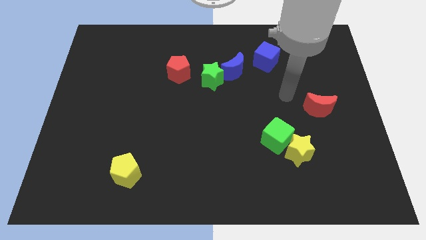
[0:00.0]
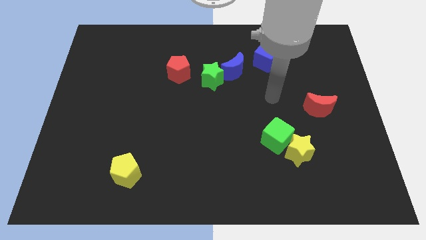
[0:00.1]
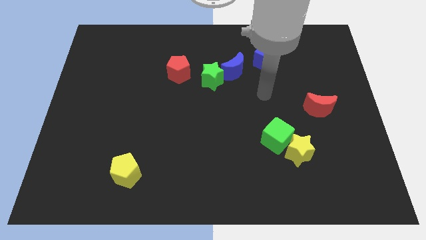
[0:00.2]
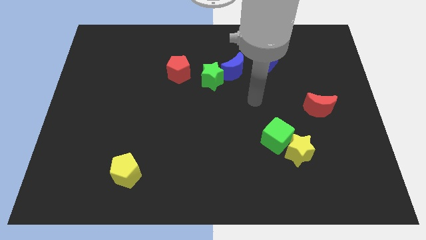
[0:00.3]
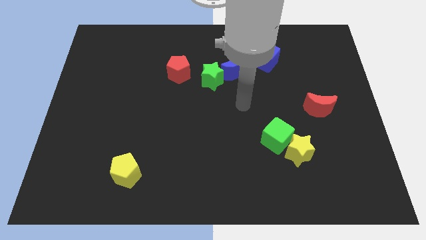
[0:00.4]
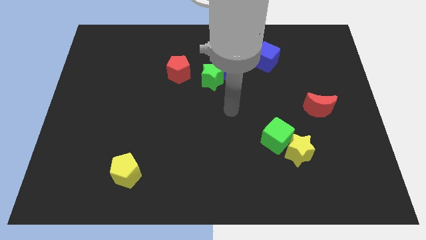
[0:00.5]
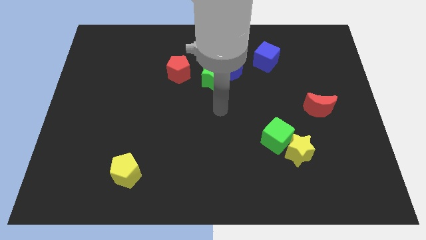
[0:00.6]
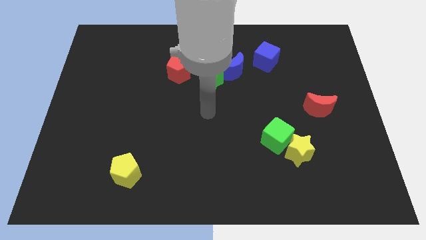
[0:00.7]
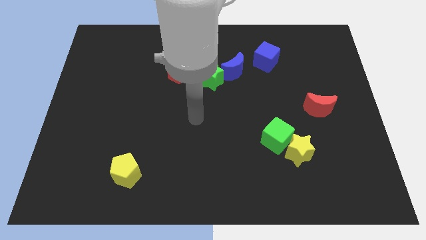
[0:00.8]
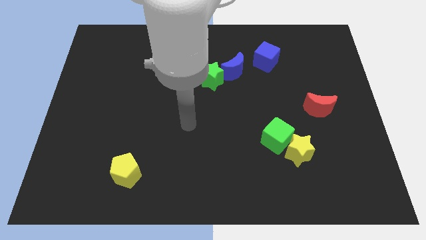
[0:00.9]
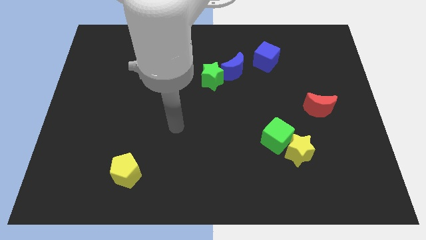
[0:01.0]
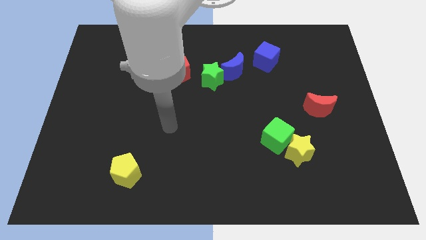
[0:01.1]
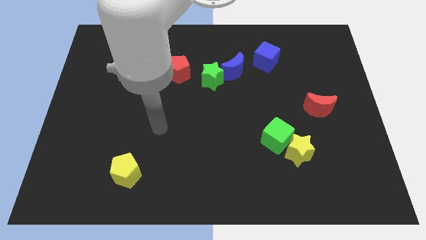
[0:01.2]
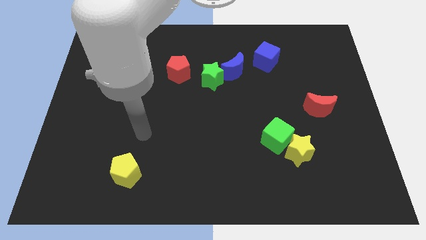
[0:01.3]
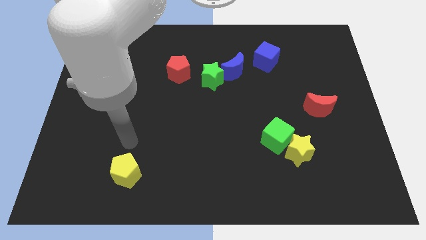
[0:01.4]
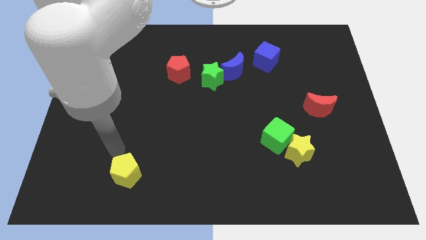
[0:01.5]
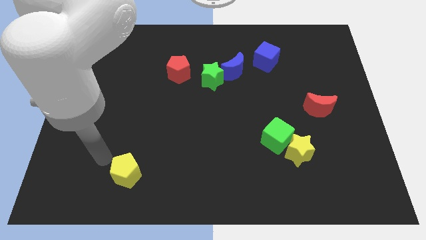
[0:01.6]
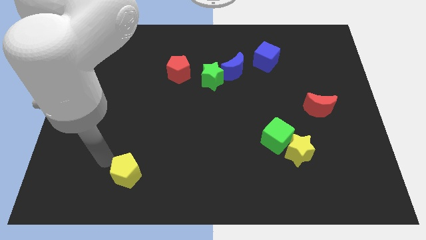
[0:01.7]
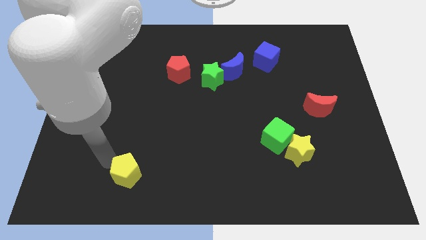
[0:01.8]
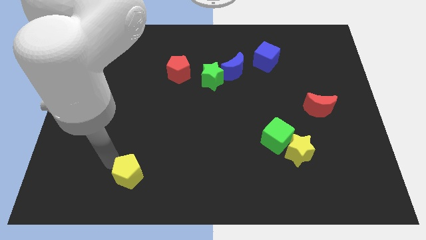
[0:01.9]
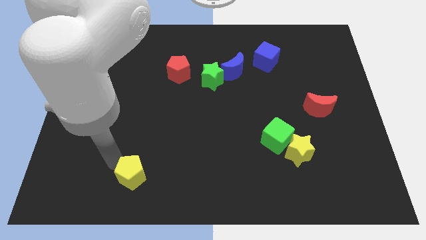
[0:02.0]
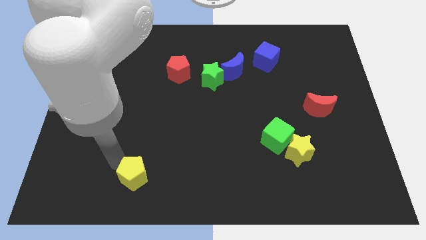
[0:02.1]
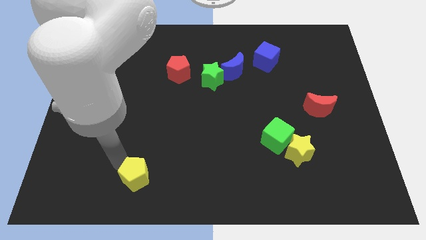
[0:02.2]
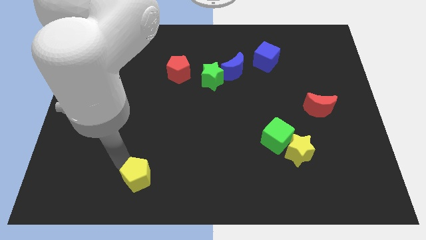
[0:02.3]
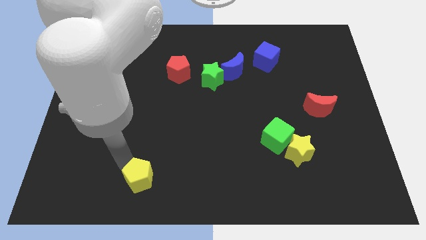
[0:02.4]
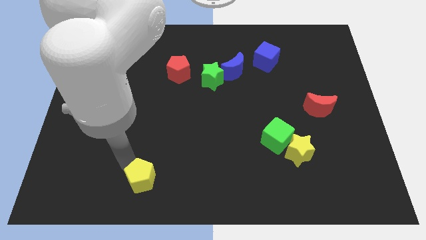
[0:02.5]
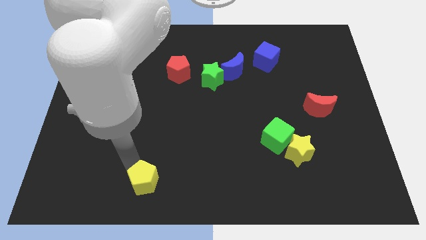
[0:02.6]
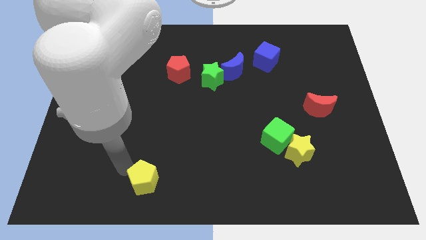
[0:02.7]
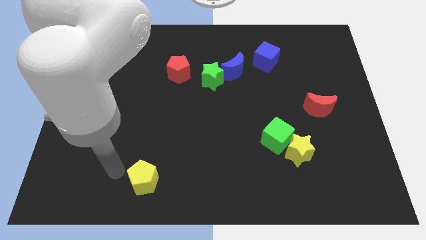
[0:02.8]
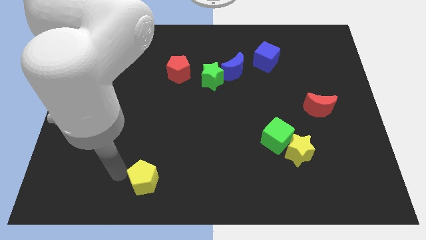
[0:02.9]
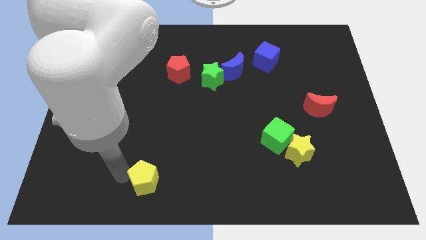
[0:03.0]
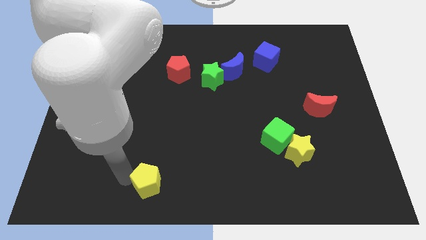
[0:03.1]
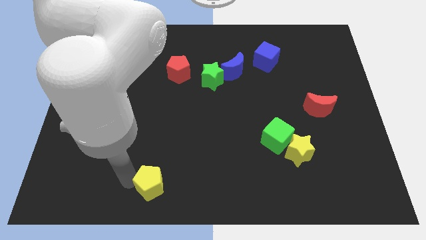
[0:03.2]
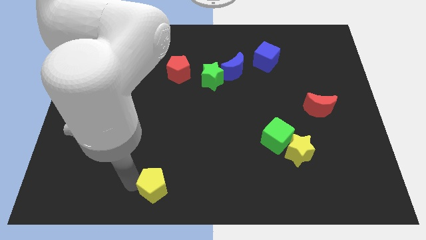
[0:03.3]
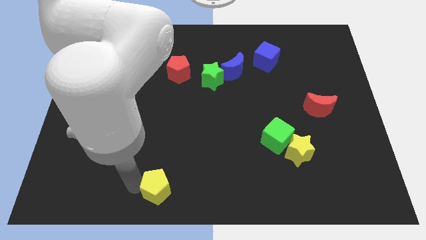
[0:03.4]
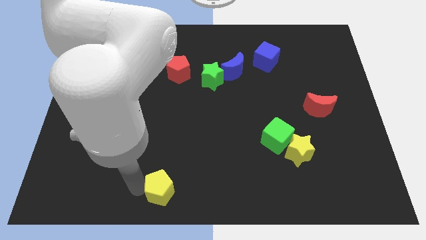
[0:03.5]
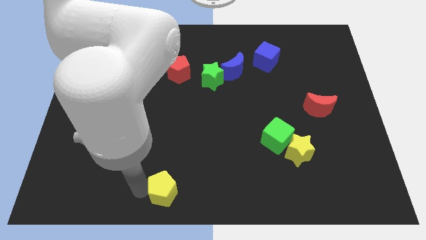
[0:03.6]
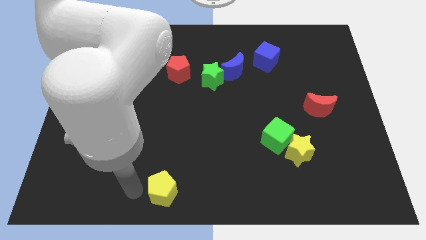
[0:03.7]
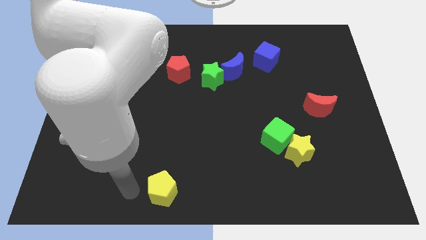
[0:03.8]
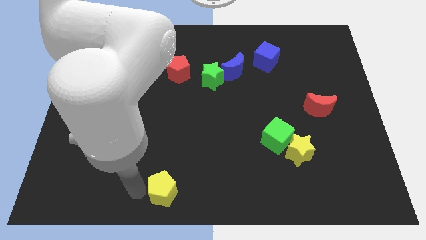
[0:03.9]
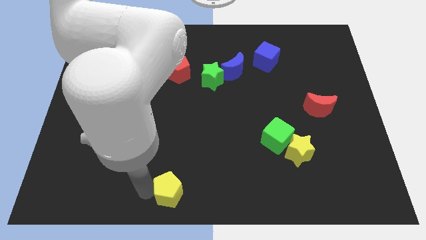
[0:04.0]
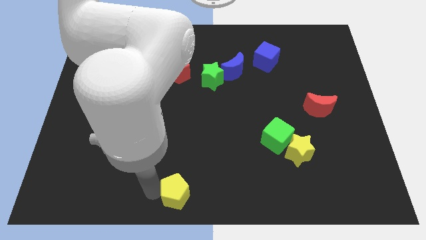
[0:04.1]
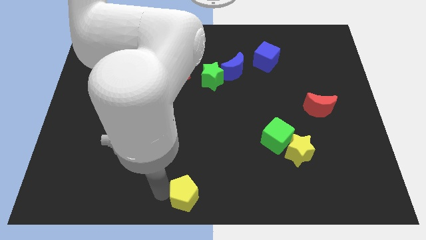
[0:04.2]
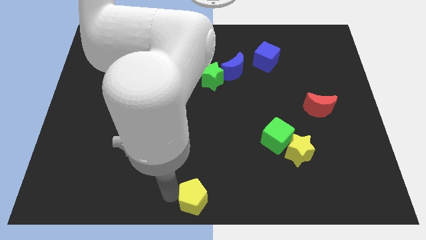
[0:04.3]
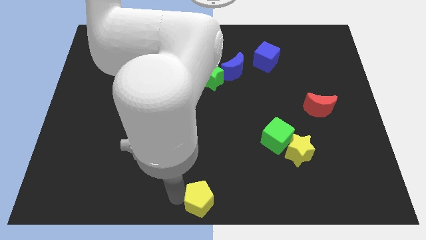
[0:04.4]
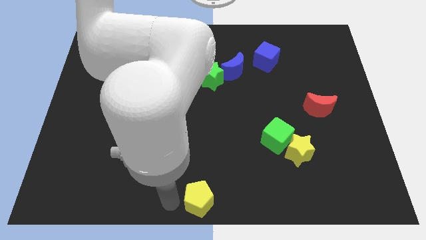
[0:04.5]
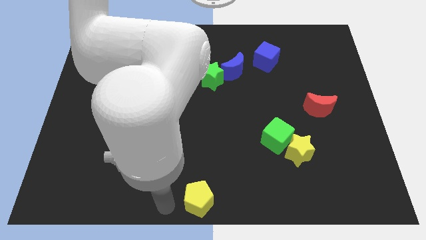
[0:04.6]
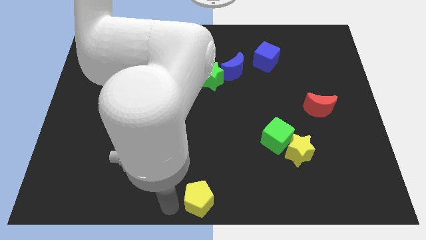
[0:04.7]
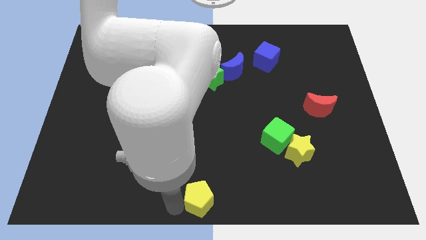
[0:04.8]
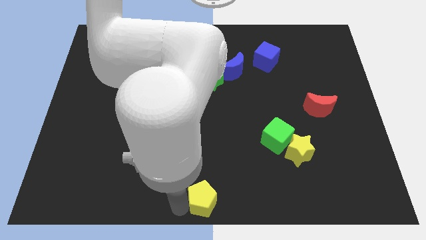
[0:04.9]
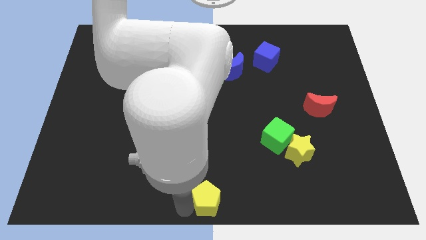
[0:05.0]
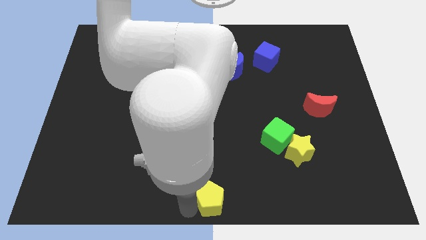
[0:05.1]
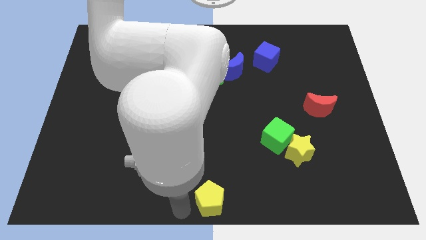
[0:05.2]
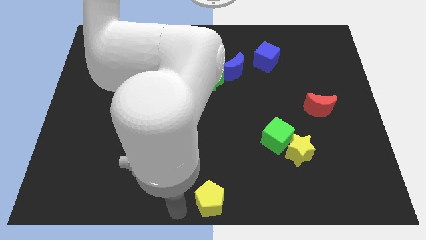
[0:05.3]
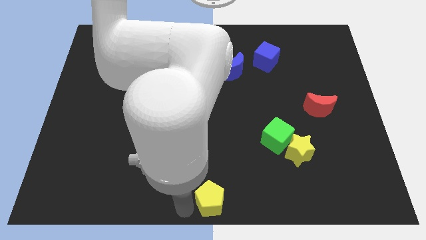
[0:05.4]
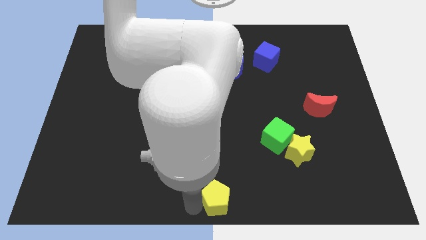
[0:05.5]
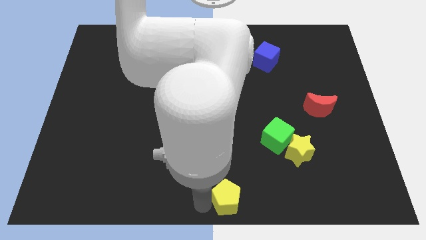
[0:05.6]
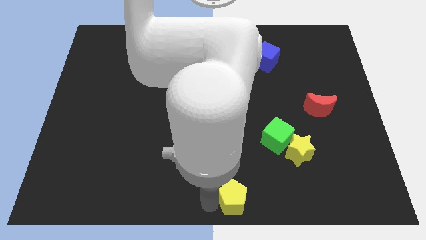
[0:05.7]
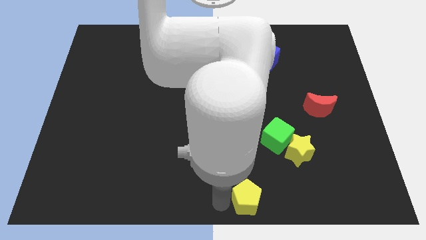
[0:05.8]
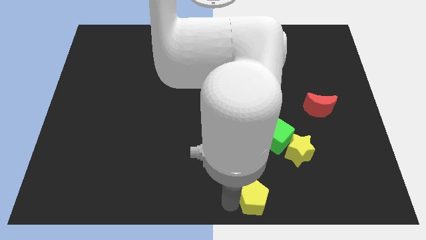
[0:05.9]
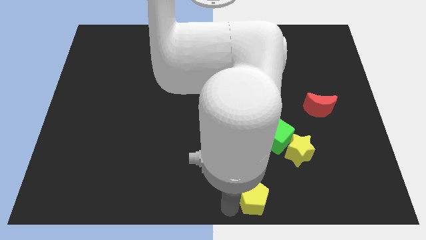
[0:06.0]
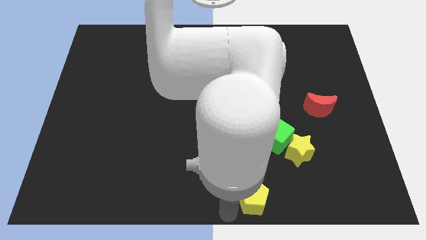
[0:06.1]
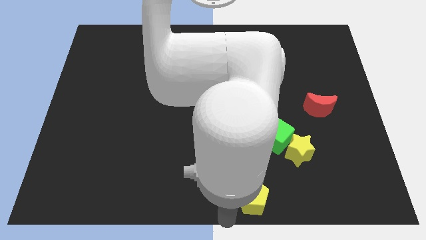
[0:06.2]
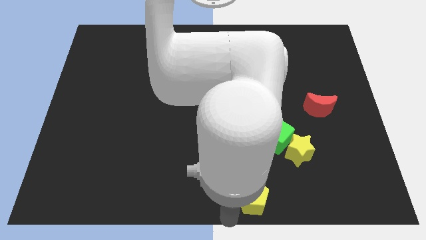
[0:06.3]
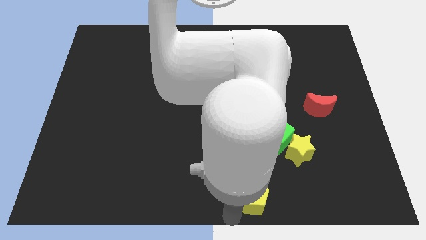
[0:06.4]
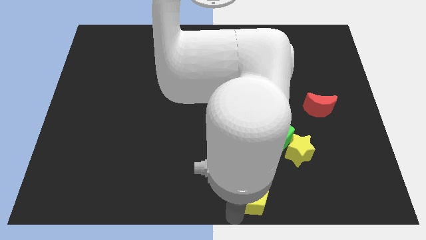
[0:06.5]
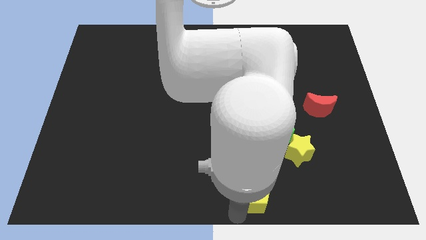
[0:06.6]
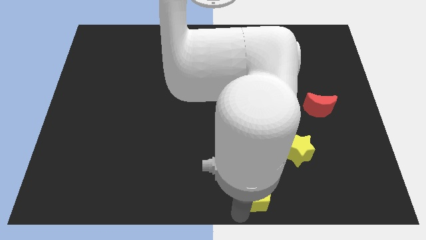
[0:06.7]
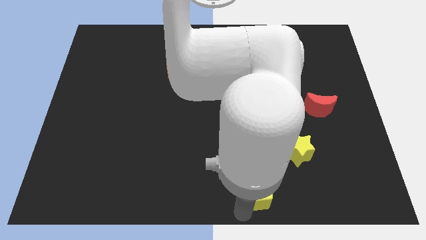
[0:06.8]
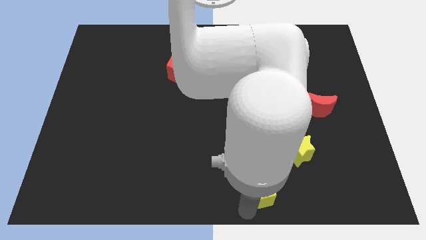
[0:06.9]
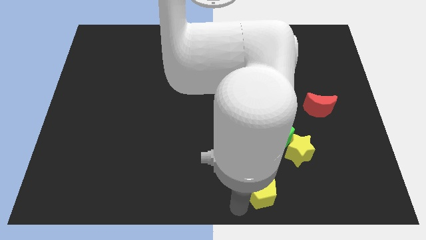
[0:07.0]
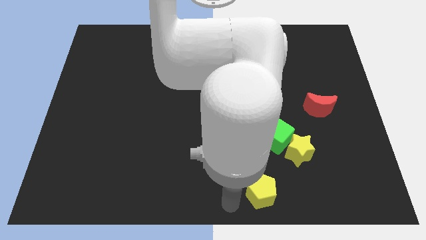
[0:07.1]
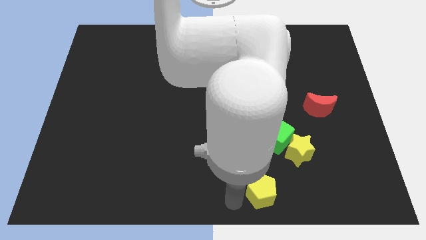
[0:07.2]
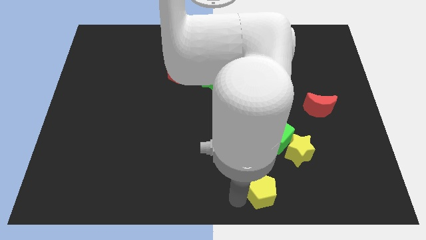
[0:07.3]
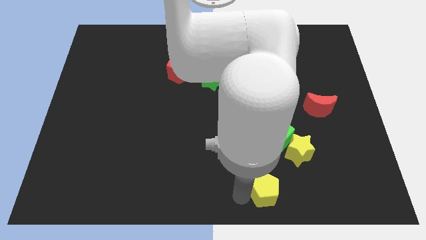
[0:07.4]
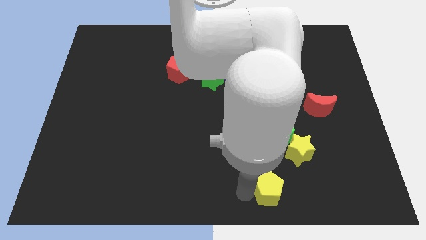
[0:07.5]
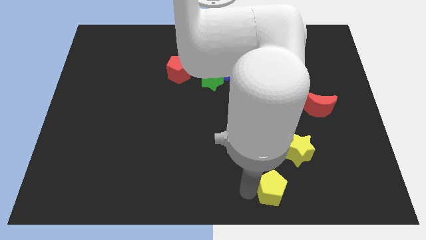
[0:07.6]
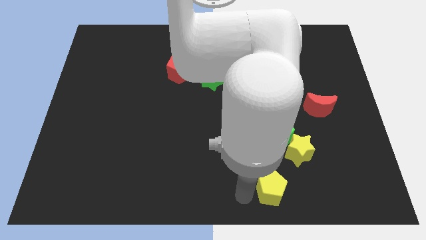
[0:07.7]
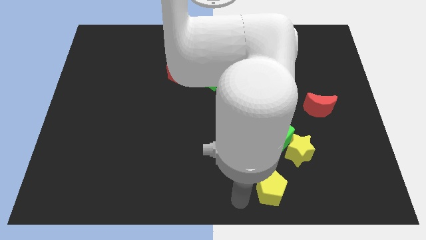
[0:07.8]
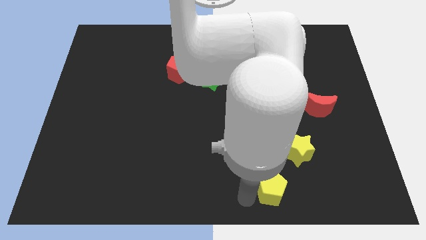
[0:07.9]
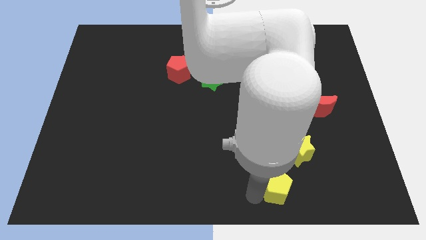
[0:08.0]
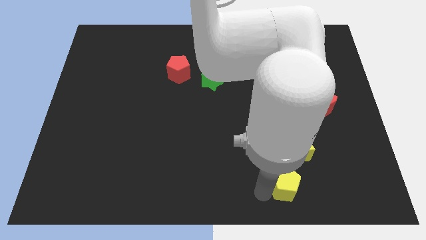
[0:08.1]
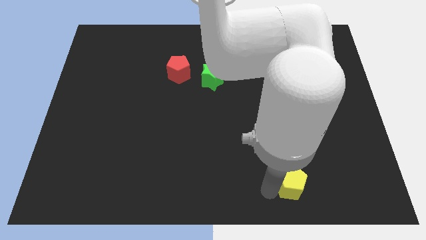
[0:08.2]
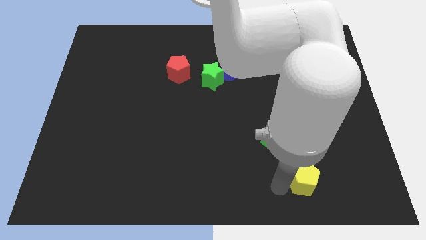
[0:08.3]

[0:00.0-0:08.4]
move the yellow pentagon to the bottom right of the yellow star
